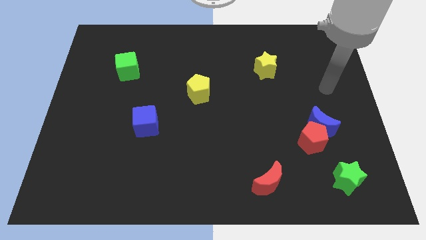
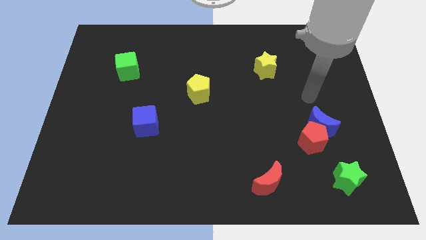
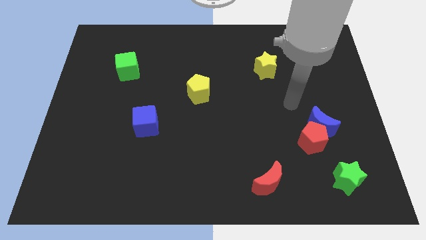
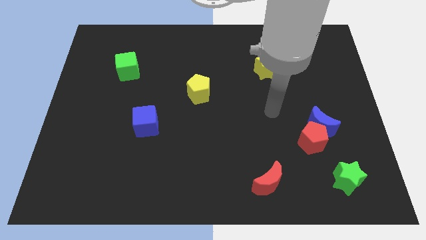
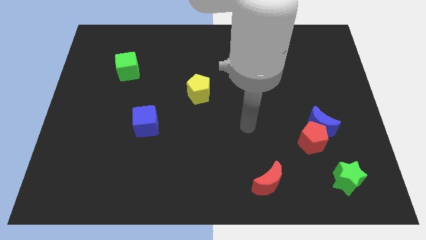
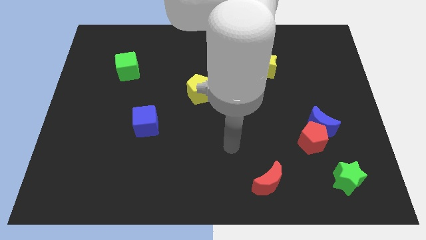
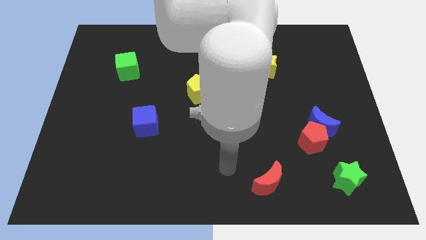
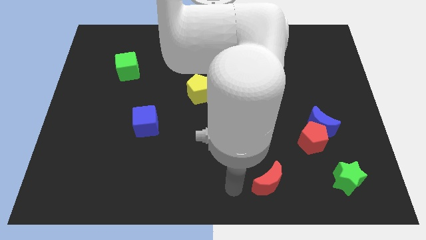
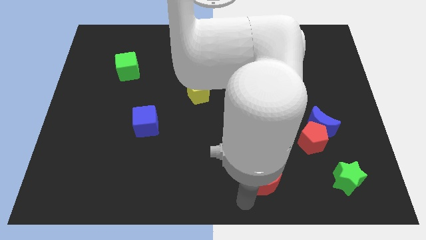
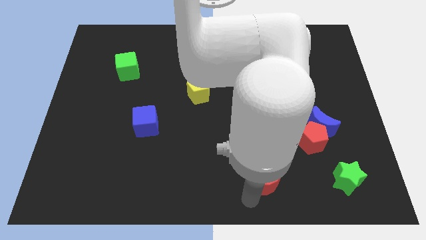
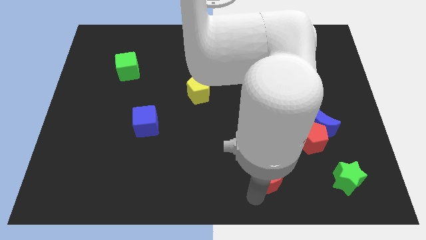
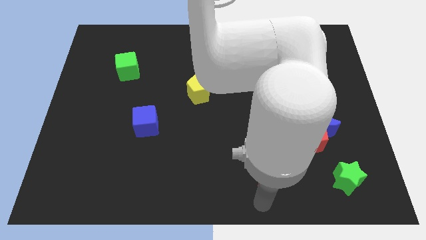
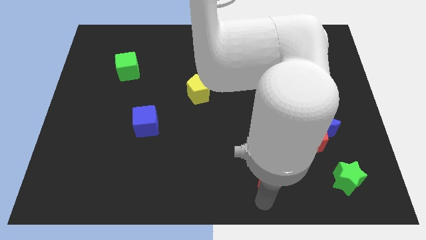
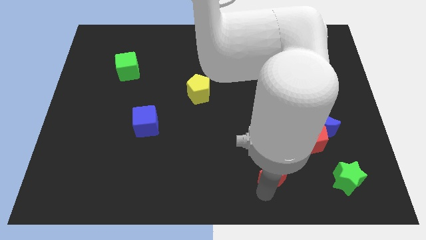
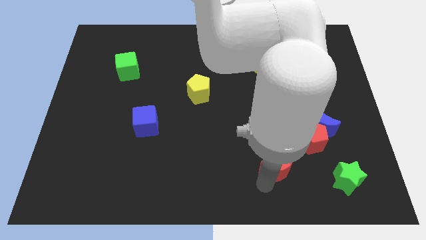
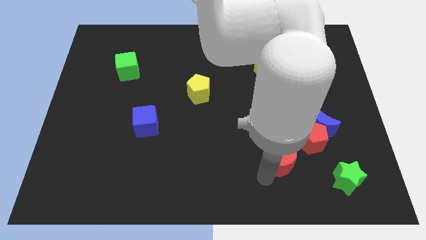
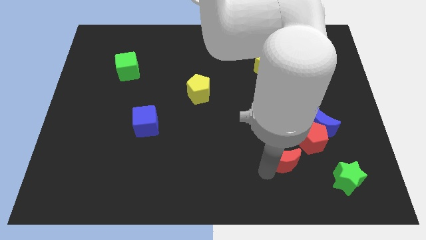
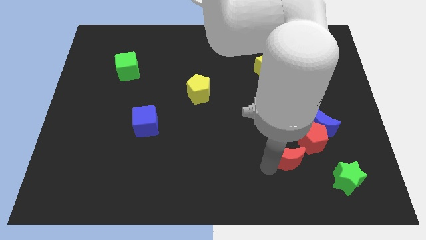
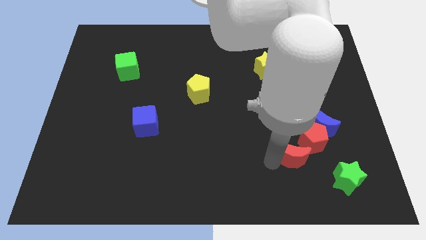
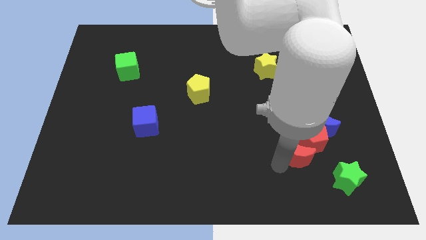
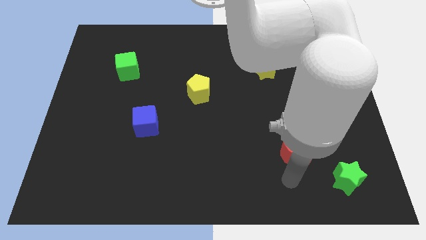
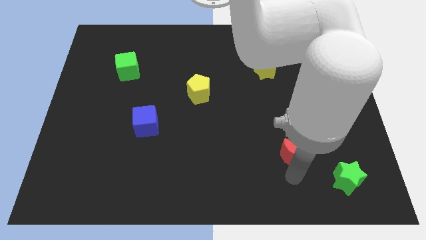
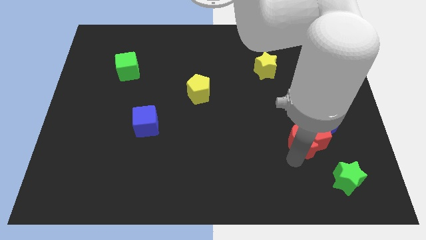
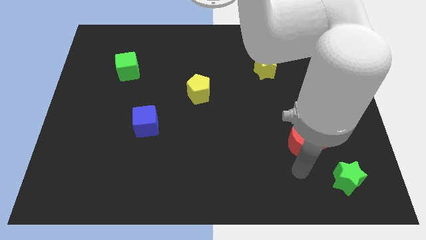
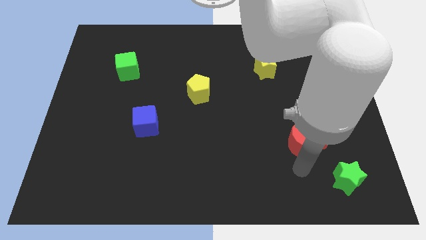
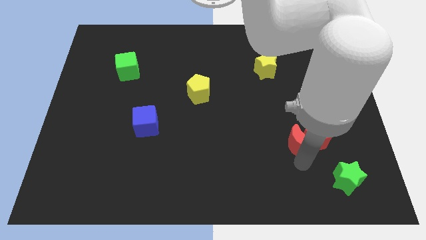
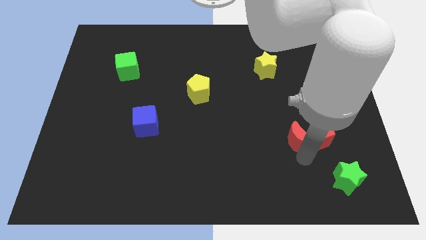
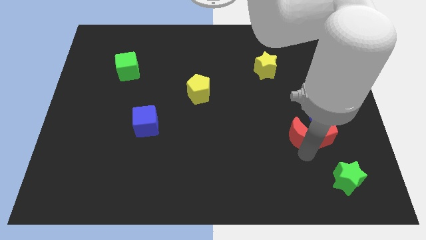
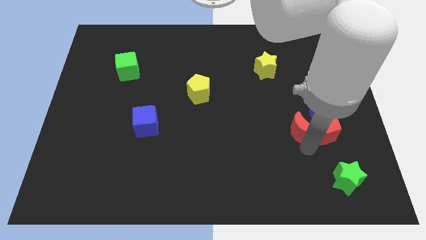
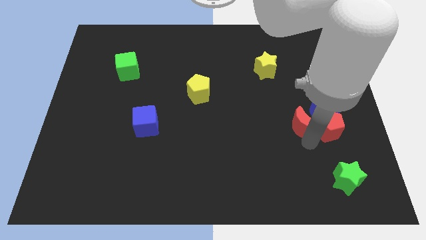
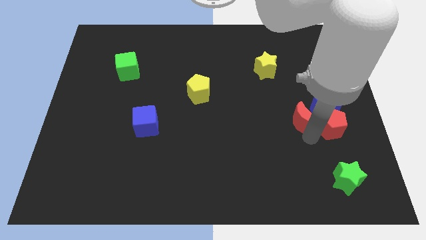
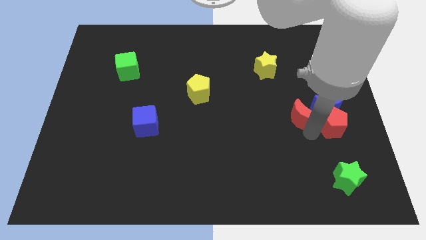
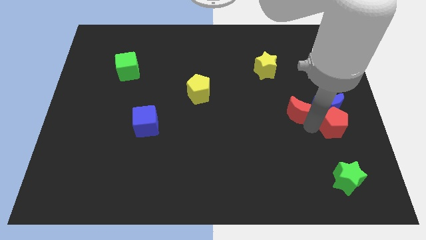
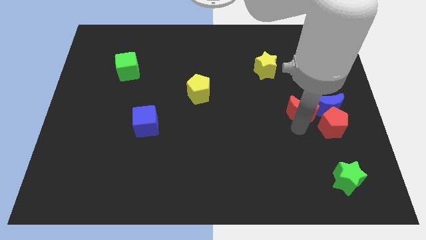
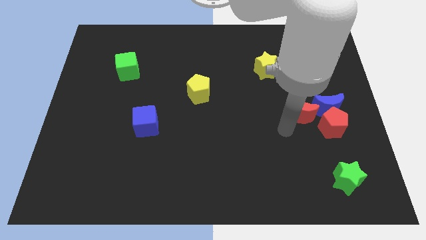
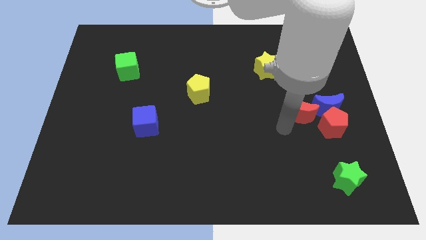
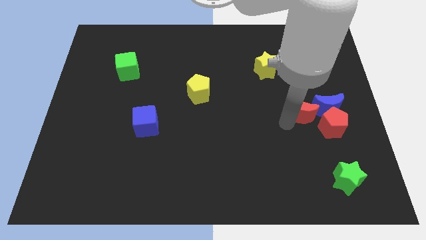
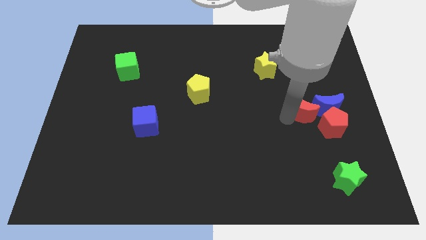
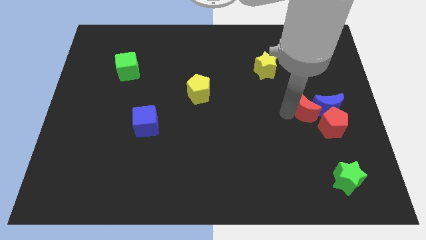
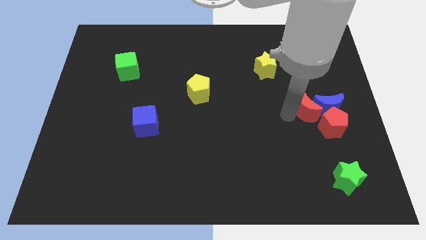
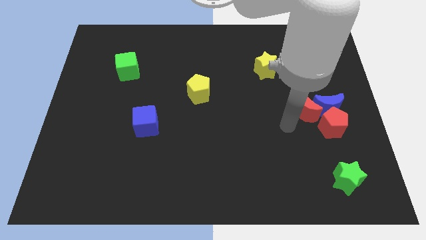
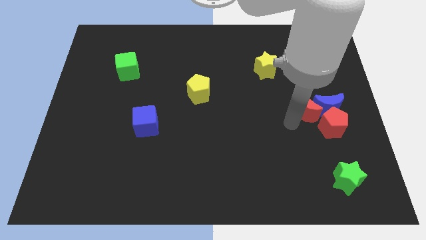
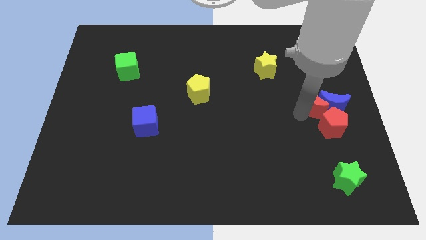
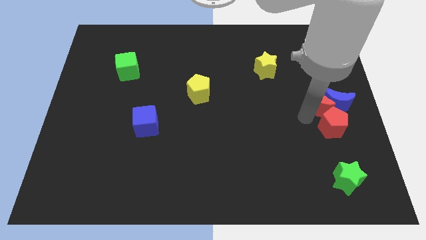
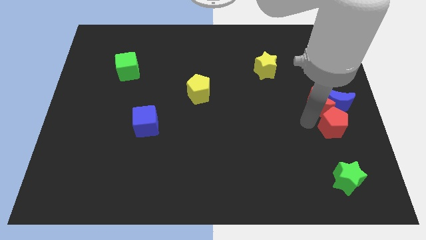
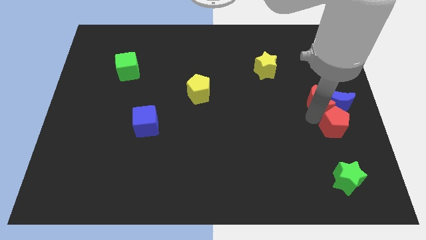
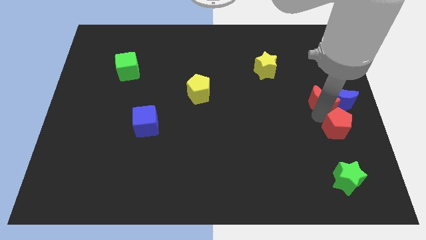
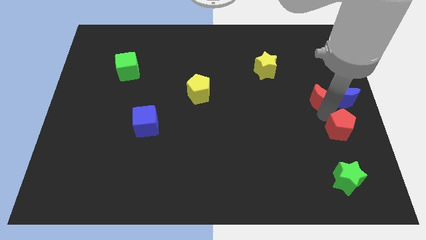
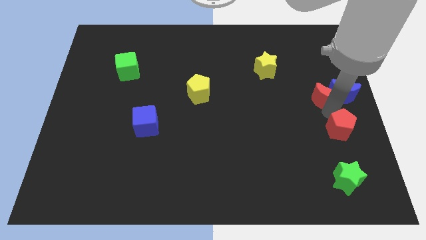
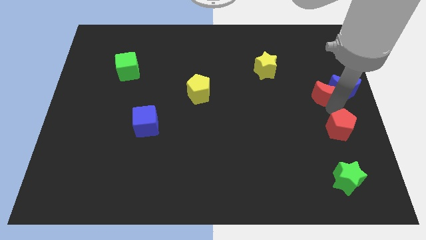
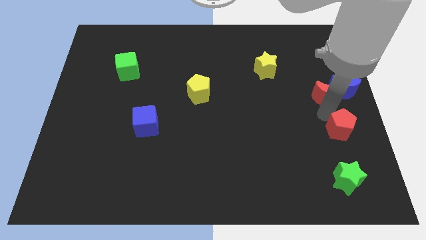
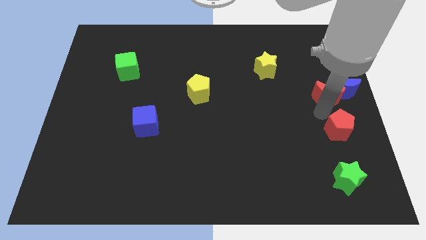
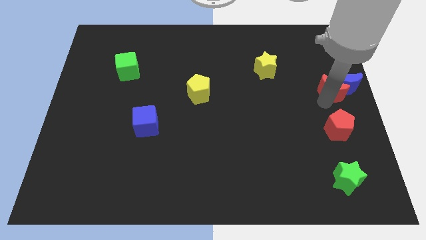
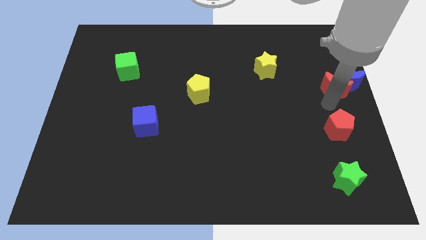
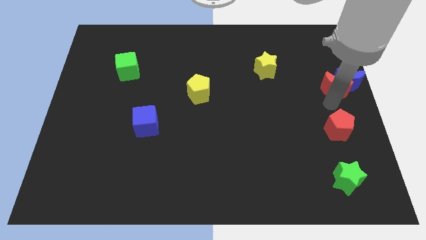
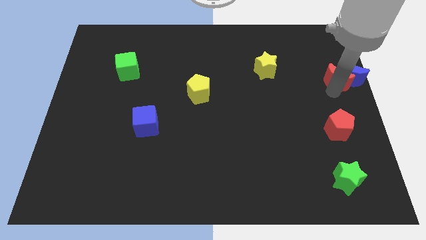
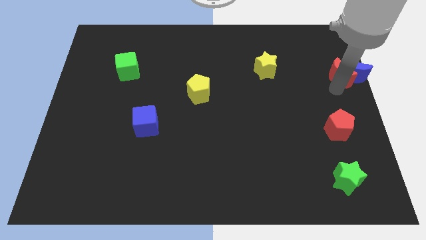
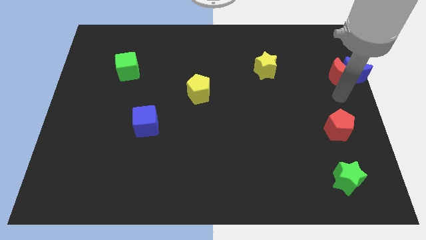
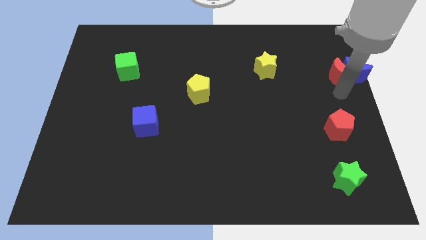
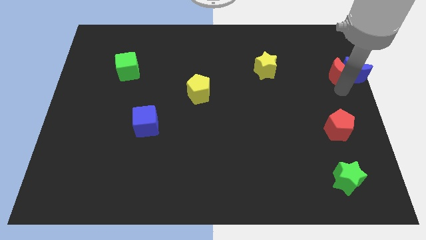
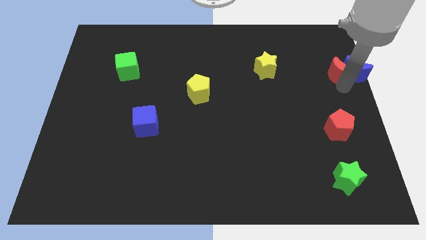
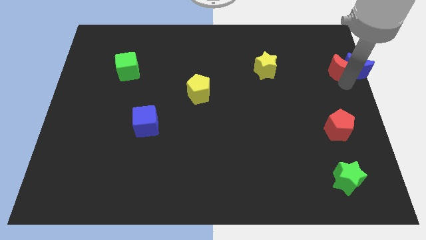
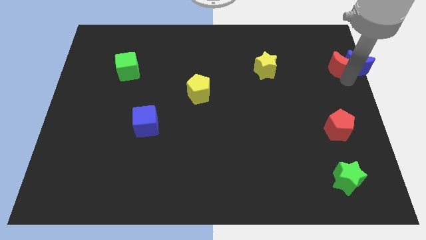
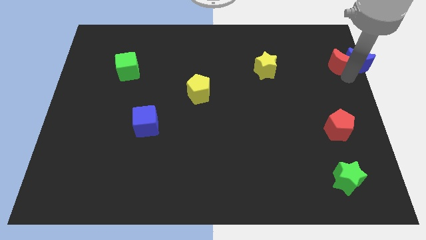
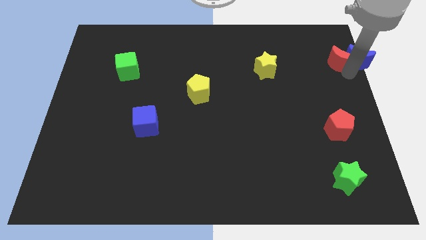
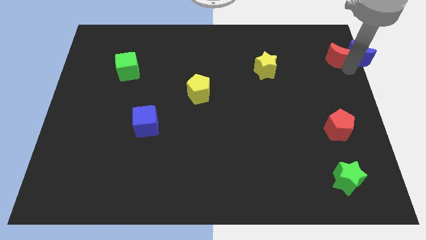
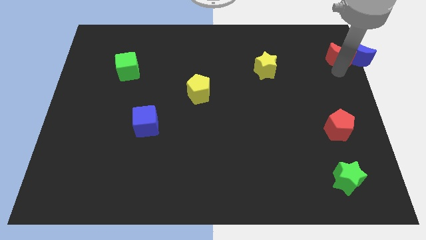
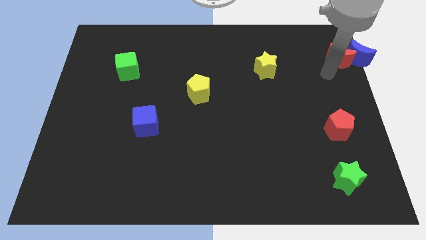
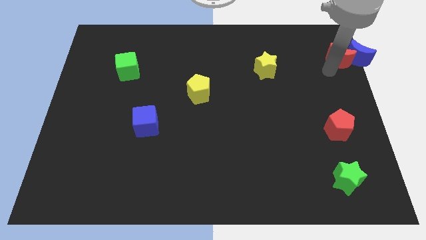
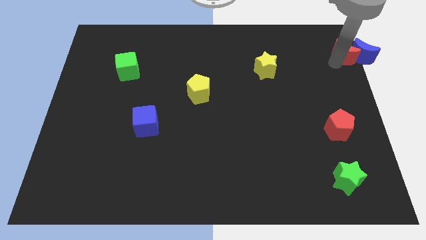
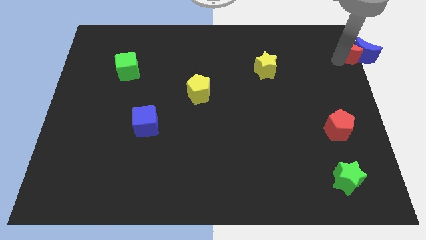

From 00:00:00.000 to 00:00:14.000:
put the red moon to the top right of the board

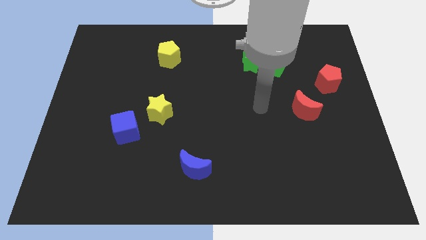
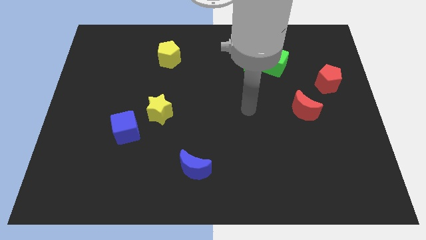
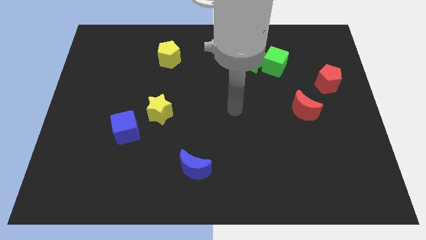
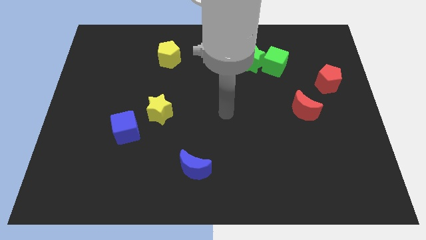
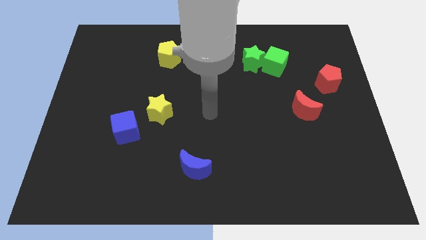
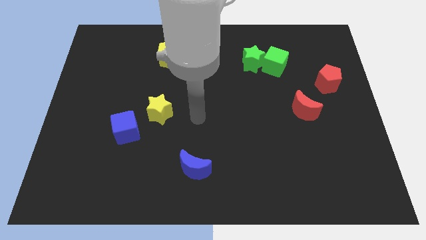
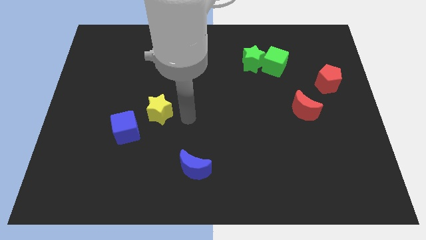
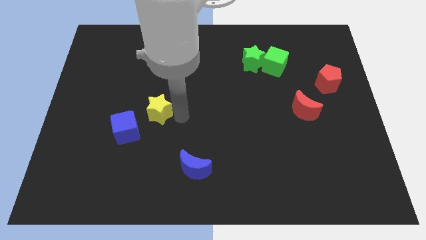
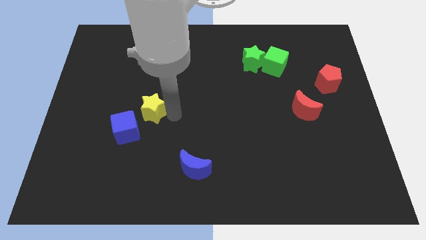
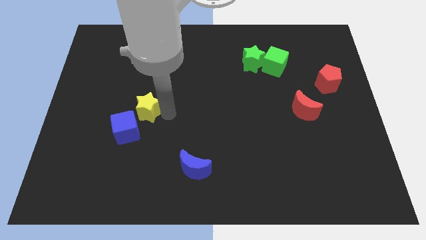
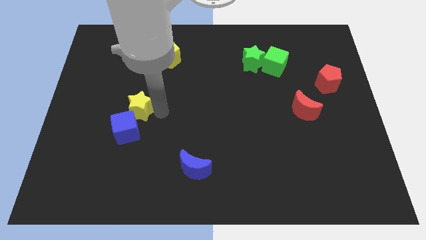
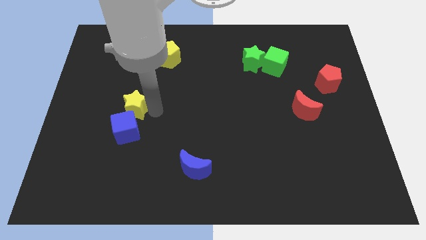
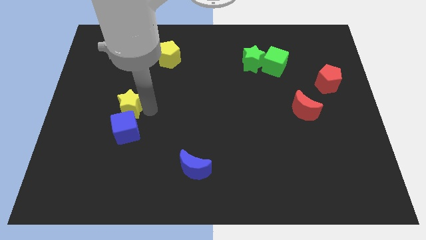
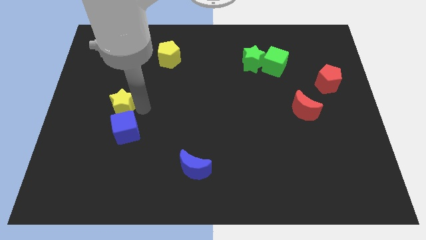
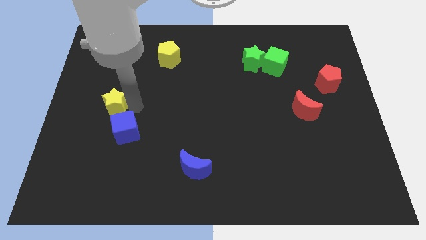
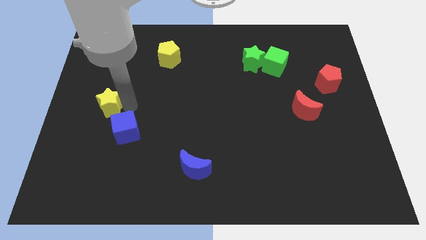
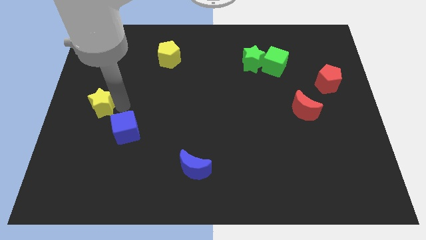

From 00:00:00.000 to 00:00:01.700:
push the yellow star to the left side of the board
